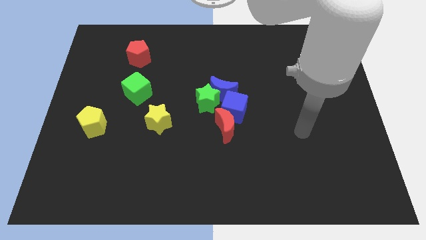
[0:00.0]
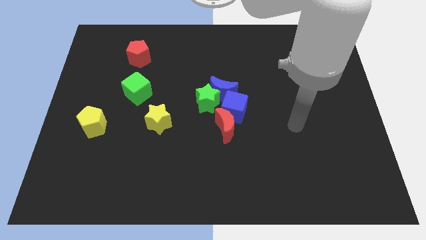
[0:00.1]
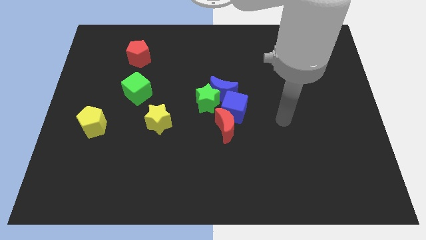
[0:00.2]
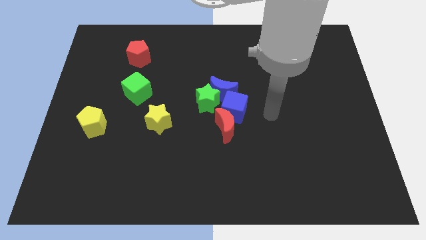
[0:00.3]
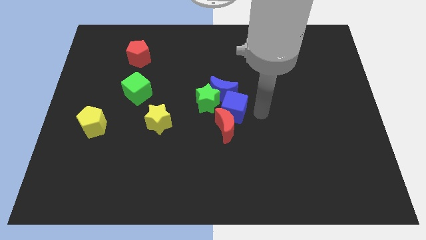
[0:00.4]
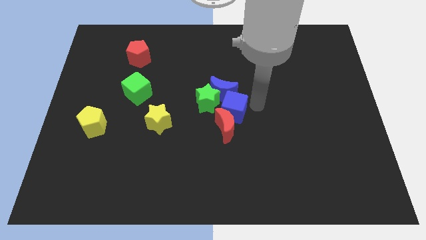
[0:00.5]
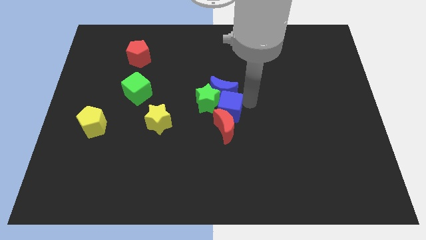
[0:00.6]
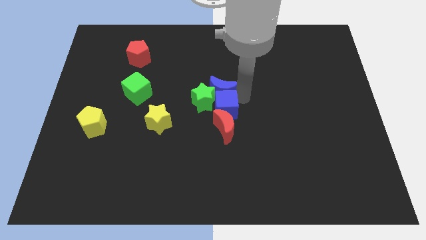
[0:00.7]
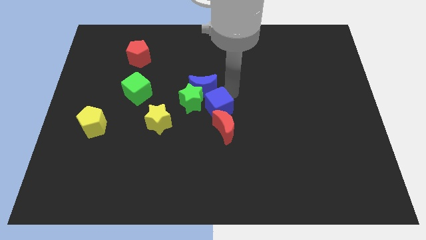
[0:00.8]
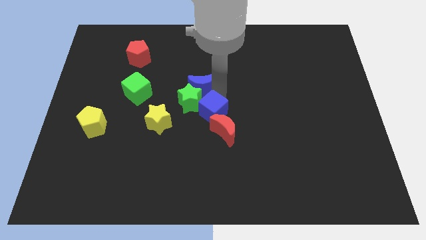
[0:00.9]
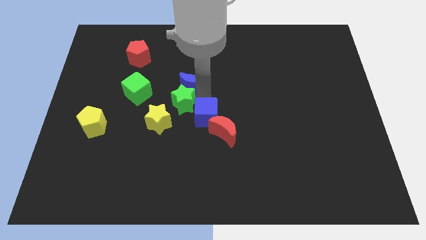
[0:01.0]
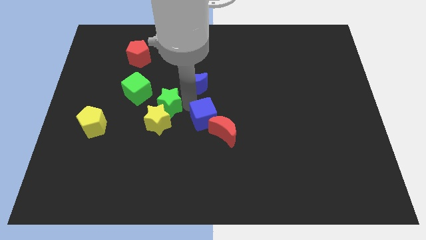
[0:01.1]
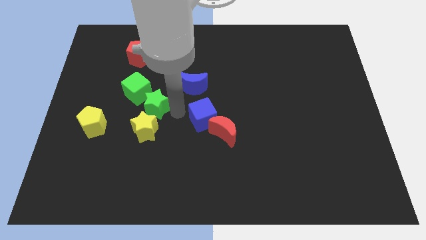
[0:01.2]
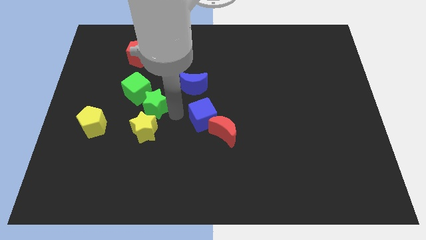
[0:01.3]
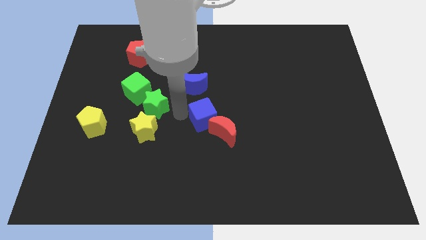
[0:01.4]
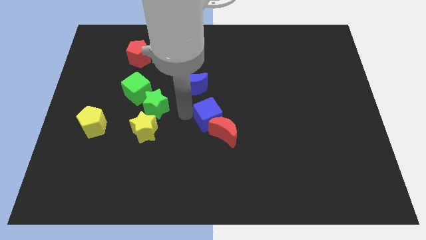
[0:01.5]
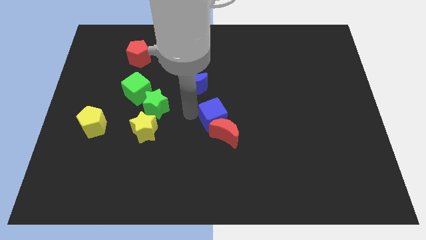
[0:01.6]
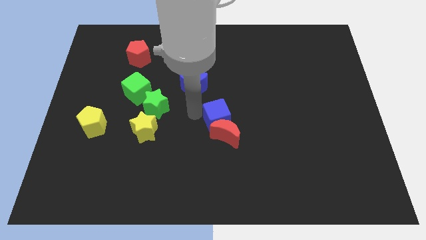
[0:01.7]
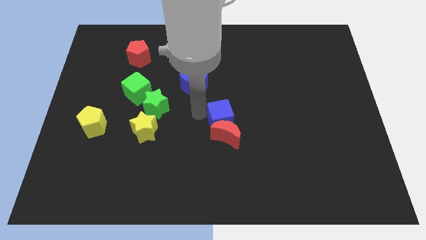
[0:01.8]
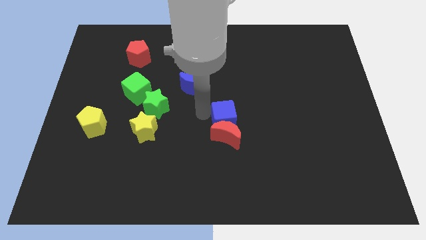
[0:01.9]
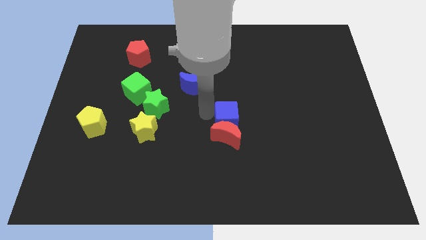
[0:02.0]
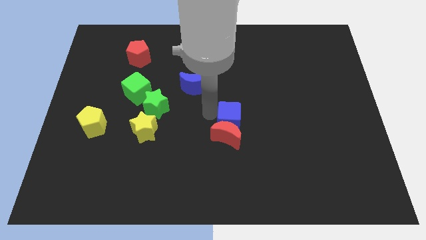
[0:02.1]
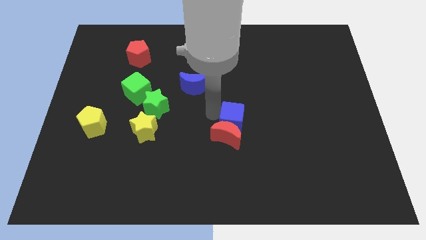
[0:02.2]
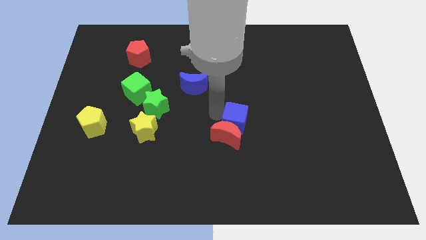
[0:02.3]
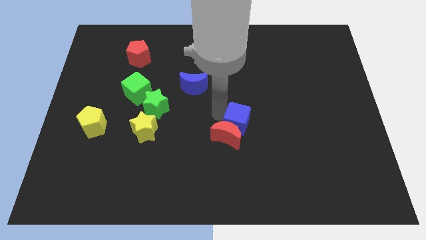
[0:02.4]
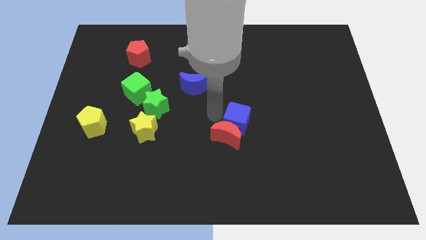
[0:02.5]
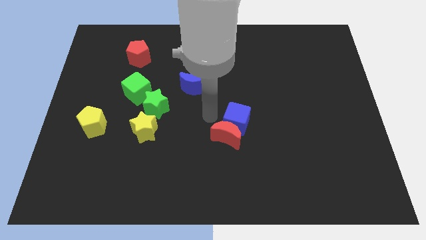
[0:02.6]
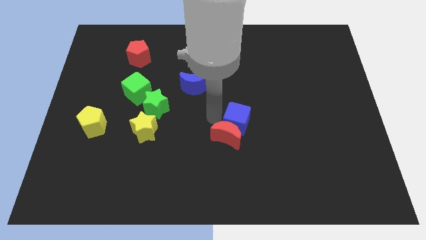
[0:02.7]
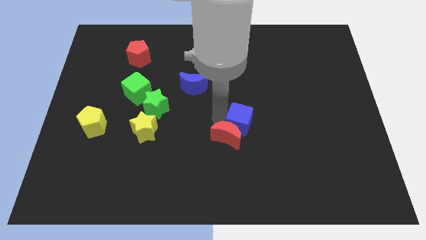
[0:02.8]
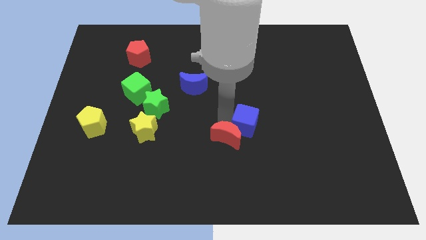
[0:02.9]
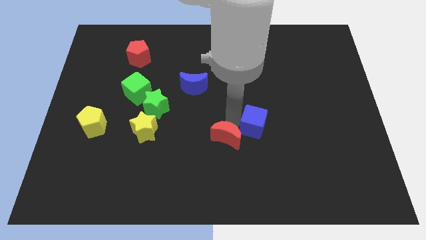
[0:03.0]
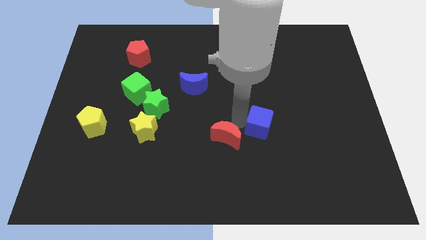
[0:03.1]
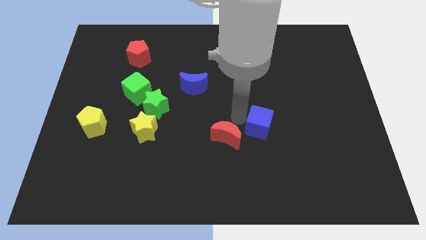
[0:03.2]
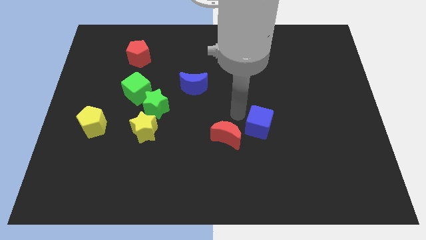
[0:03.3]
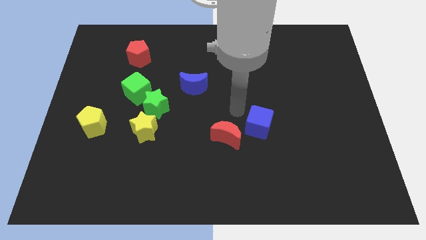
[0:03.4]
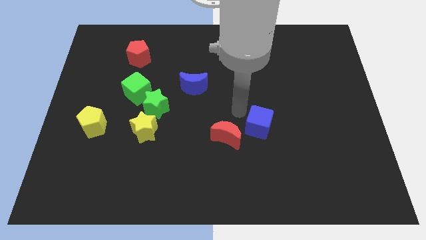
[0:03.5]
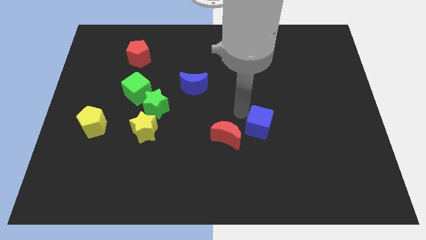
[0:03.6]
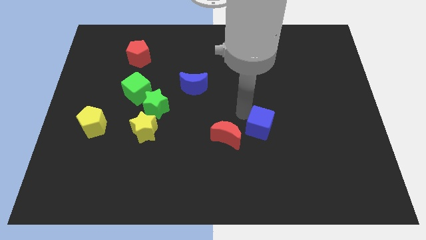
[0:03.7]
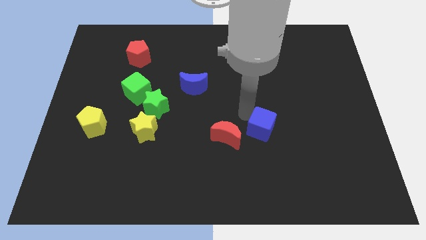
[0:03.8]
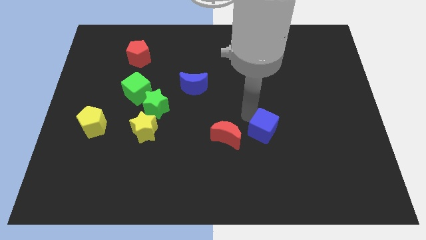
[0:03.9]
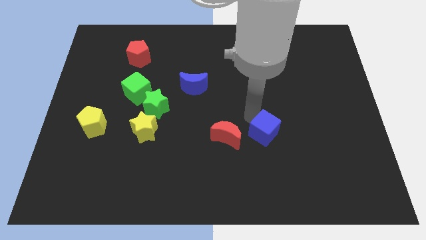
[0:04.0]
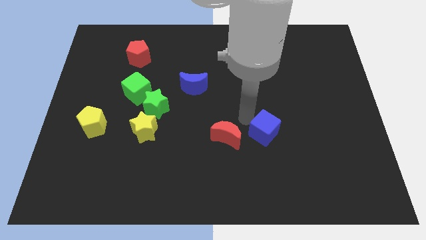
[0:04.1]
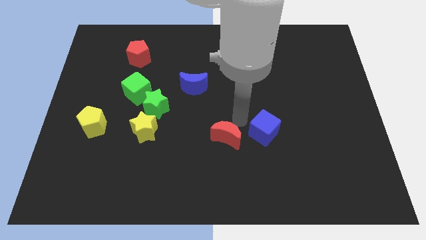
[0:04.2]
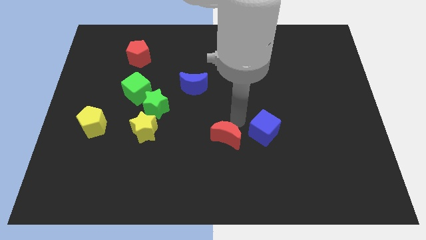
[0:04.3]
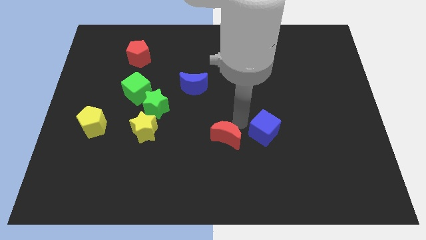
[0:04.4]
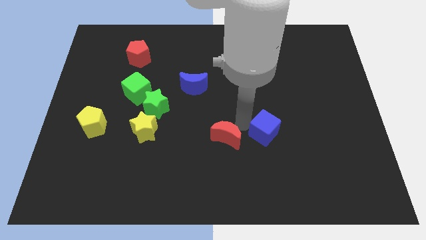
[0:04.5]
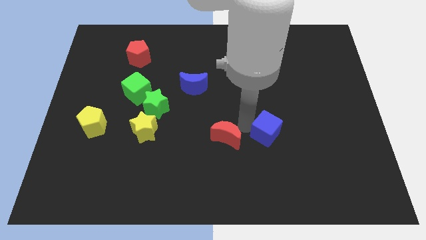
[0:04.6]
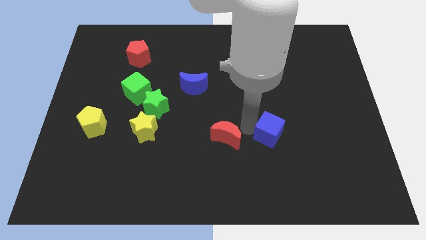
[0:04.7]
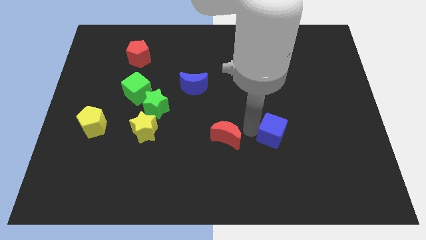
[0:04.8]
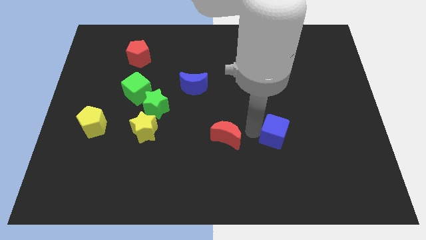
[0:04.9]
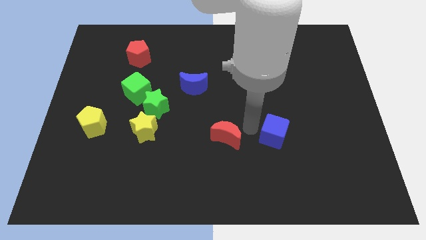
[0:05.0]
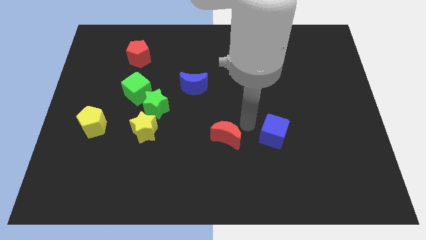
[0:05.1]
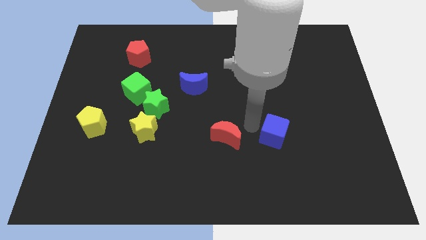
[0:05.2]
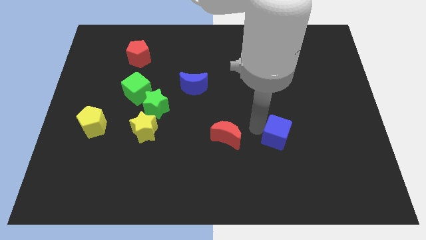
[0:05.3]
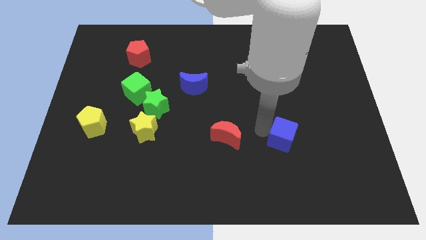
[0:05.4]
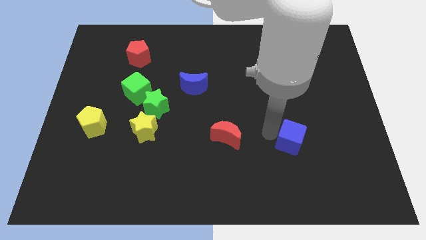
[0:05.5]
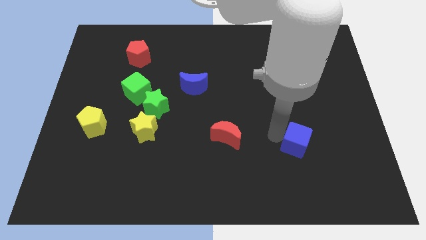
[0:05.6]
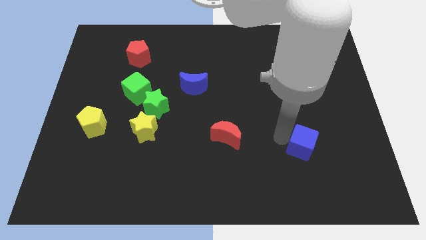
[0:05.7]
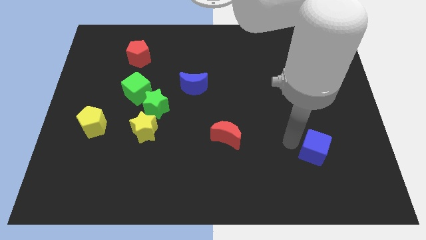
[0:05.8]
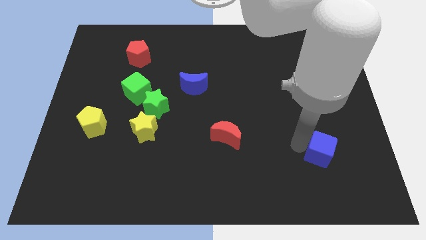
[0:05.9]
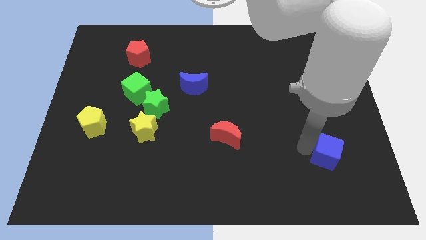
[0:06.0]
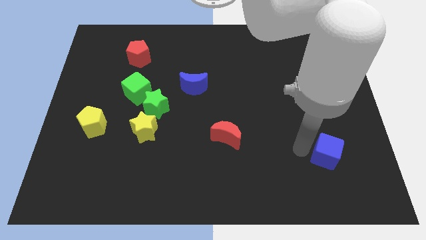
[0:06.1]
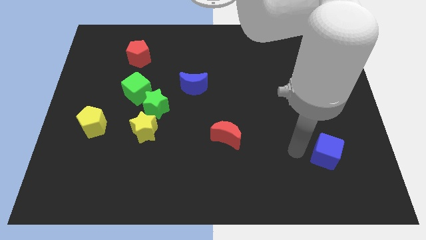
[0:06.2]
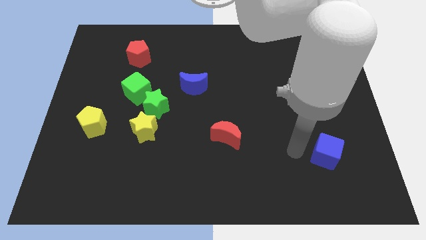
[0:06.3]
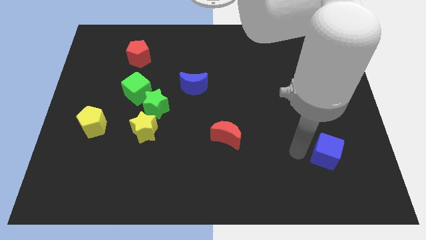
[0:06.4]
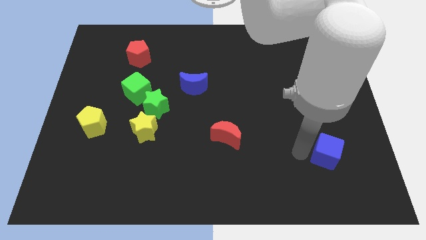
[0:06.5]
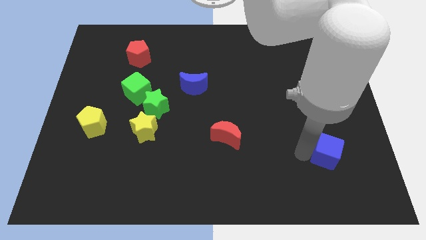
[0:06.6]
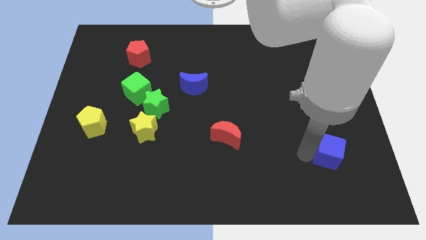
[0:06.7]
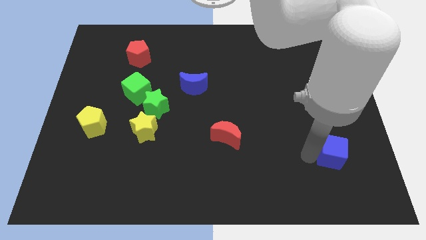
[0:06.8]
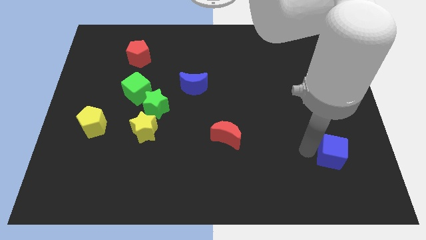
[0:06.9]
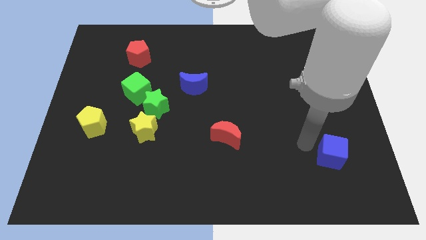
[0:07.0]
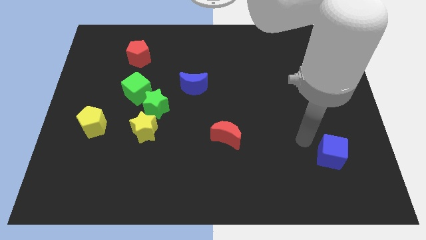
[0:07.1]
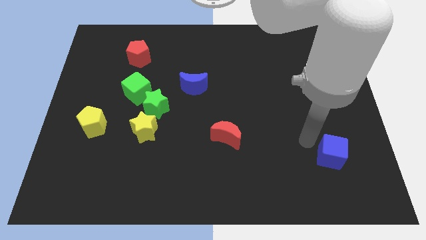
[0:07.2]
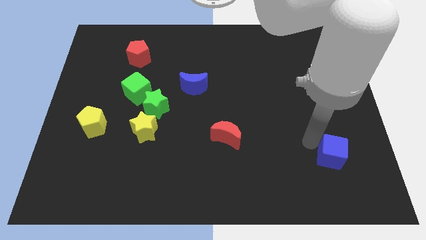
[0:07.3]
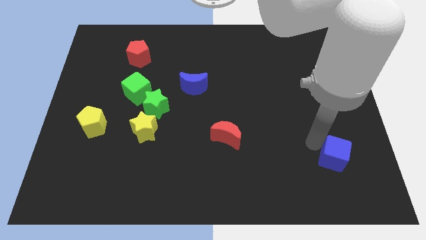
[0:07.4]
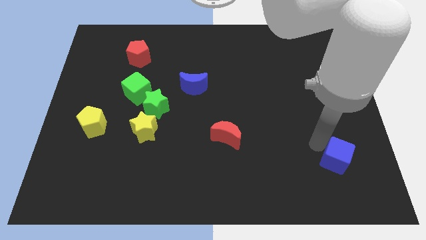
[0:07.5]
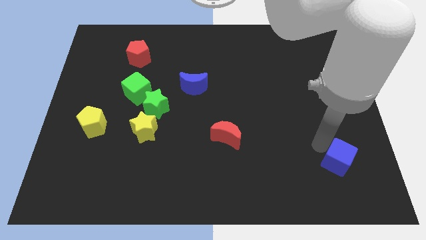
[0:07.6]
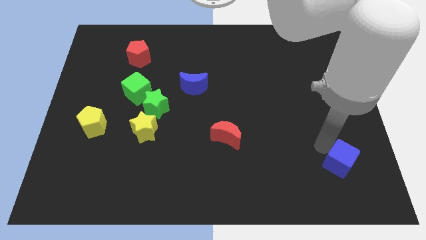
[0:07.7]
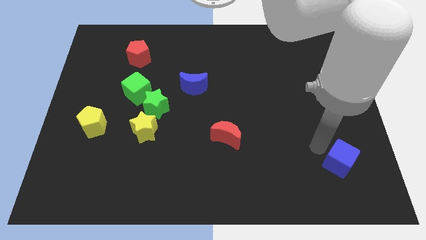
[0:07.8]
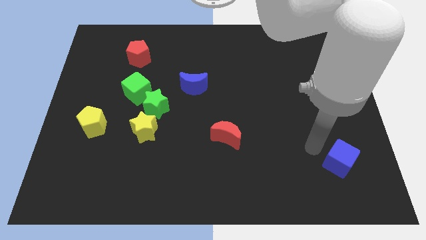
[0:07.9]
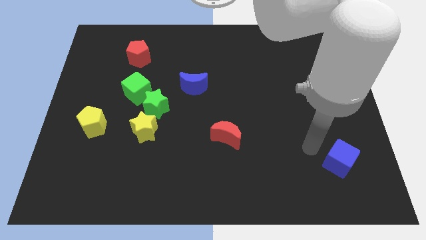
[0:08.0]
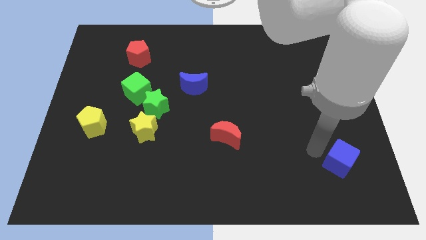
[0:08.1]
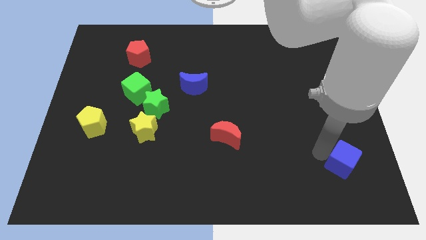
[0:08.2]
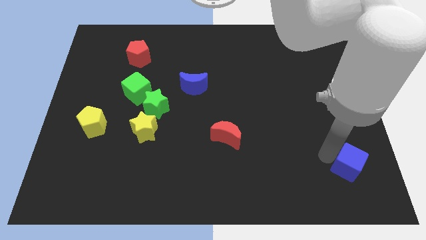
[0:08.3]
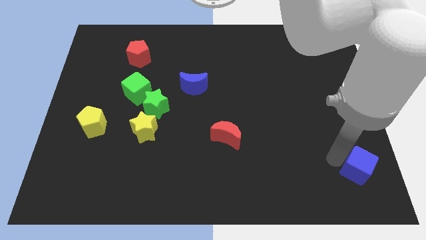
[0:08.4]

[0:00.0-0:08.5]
move the blue cube to the bottom right of the board
